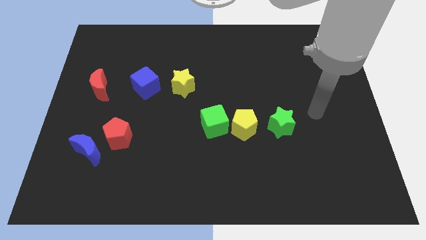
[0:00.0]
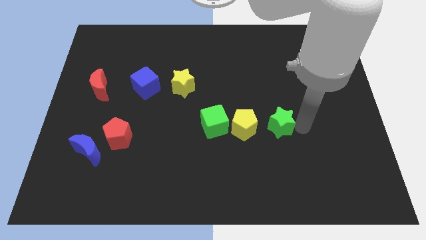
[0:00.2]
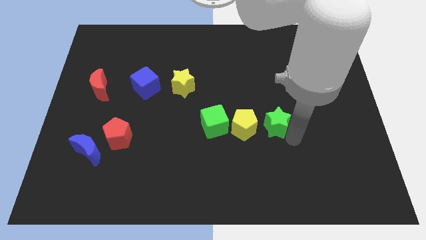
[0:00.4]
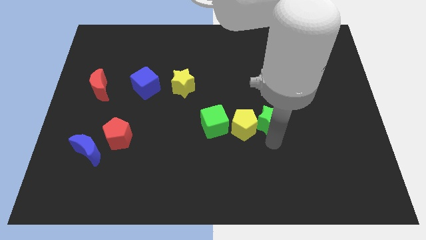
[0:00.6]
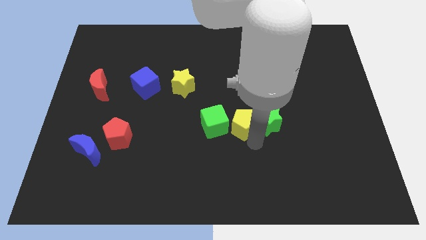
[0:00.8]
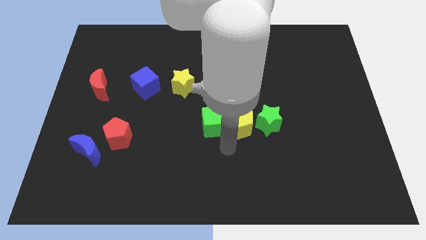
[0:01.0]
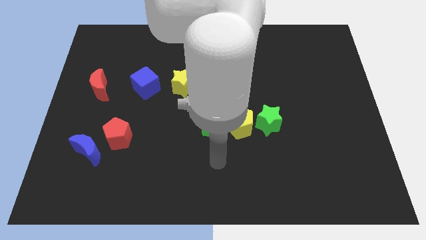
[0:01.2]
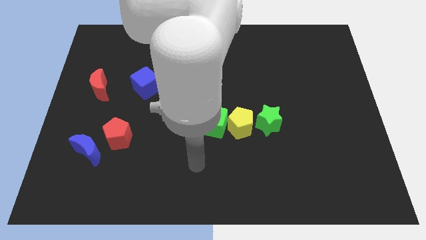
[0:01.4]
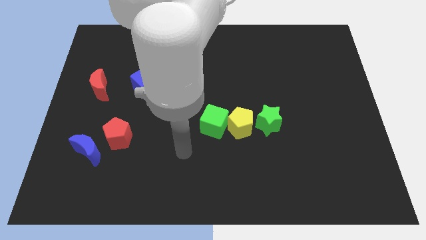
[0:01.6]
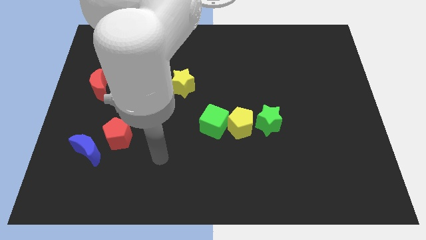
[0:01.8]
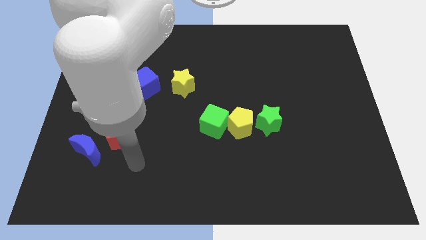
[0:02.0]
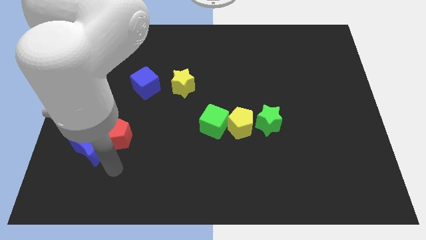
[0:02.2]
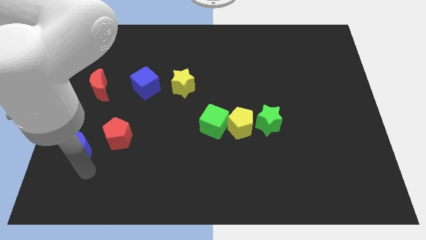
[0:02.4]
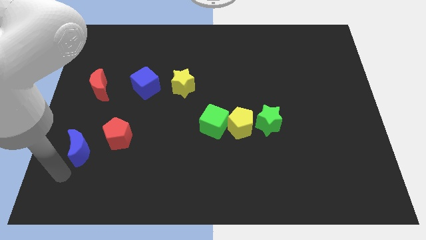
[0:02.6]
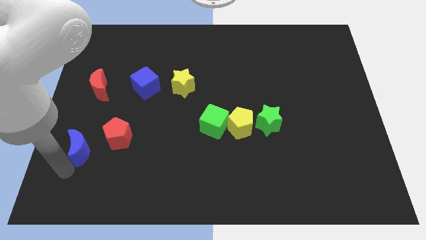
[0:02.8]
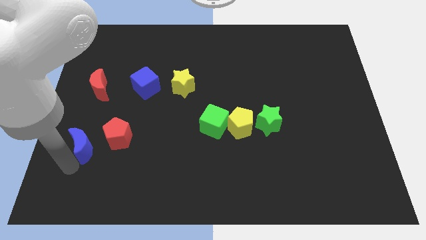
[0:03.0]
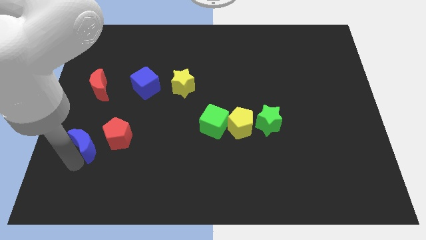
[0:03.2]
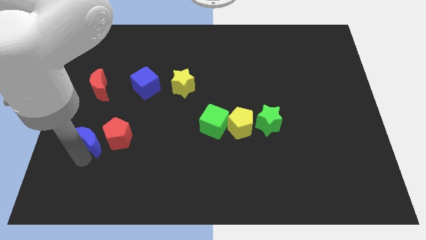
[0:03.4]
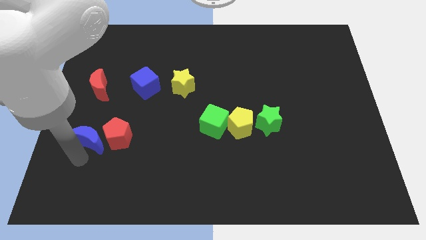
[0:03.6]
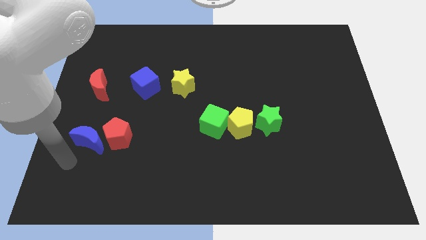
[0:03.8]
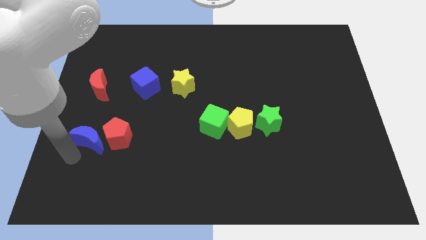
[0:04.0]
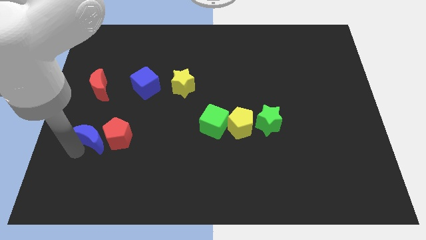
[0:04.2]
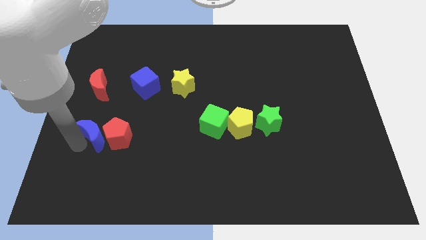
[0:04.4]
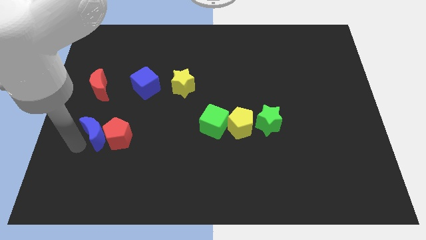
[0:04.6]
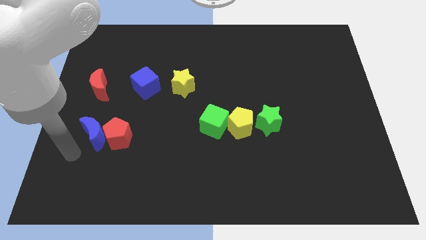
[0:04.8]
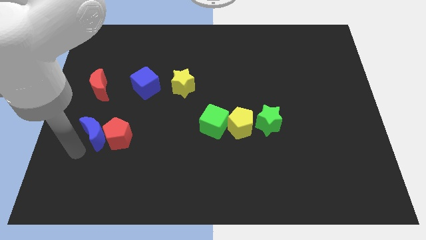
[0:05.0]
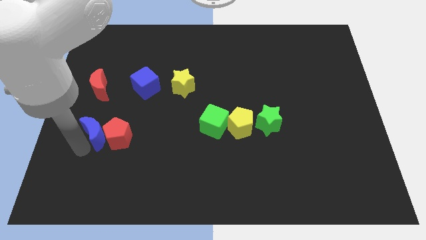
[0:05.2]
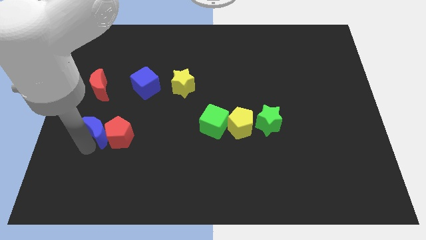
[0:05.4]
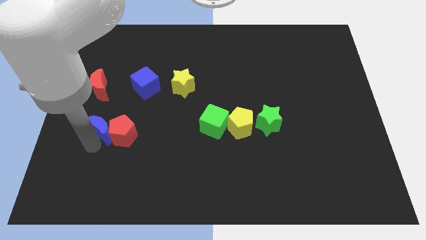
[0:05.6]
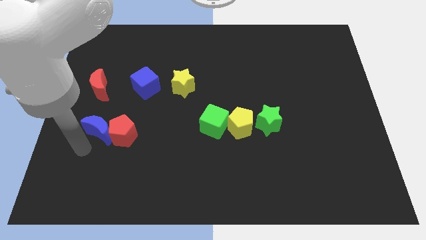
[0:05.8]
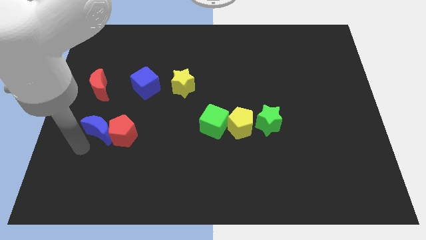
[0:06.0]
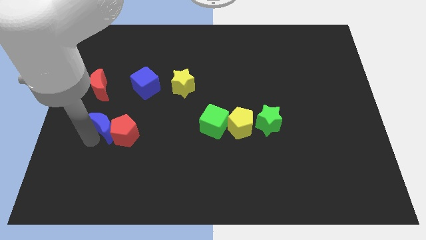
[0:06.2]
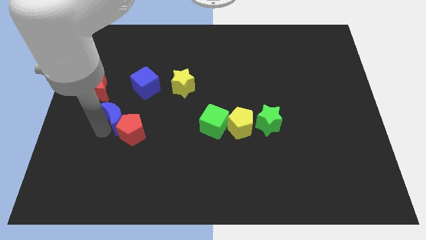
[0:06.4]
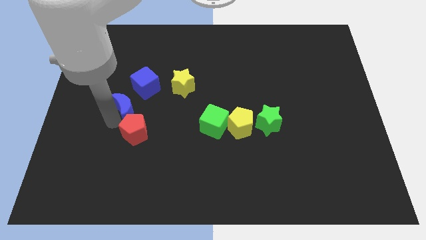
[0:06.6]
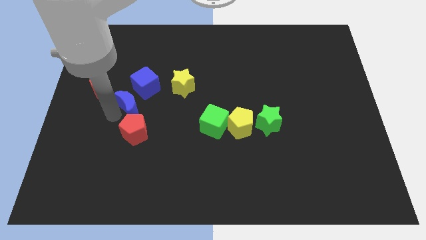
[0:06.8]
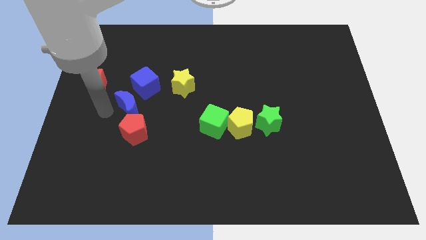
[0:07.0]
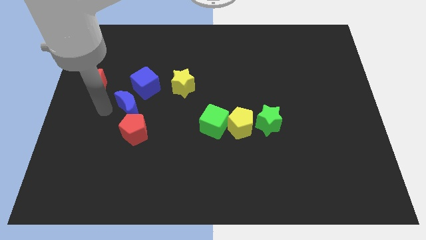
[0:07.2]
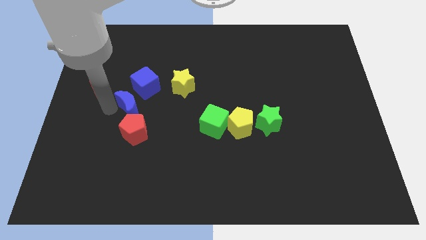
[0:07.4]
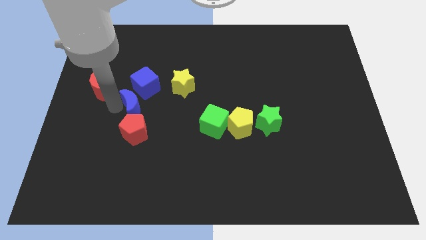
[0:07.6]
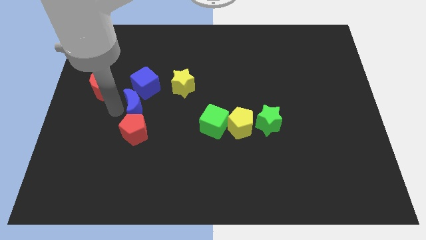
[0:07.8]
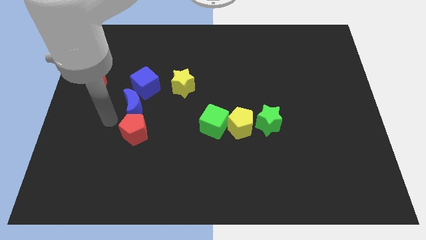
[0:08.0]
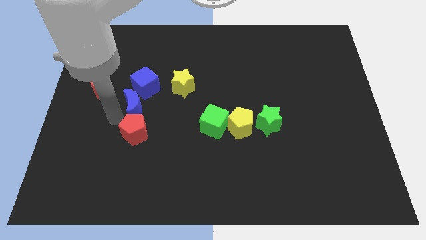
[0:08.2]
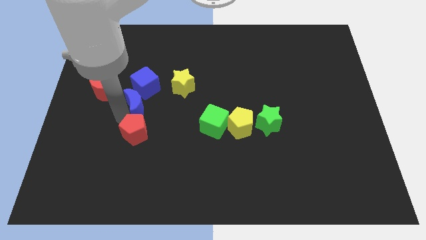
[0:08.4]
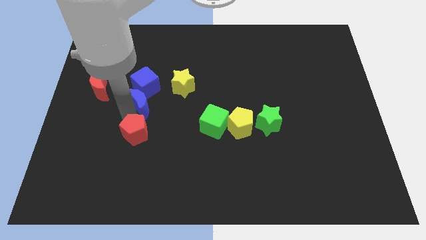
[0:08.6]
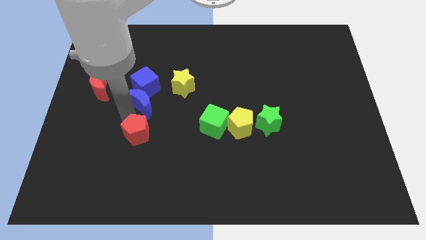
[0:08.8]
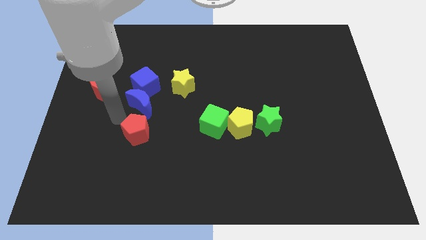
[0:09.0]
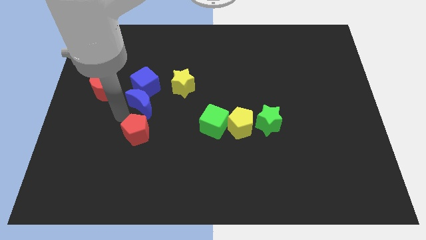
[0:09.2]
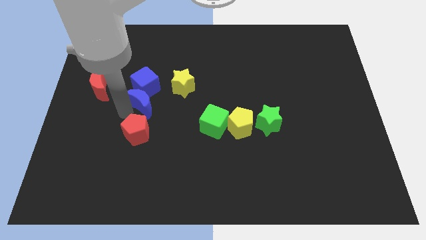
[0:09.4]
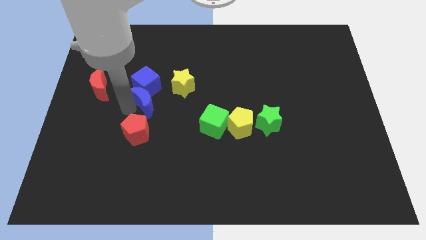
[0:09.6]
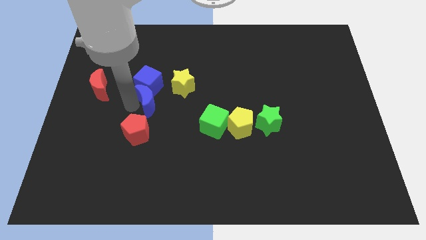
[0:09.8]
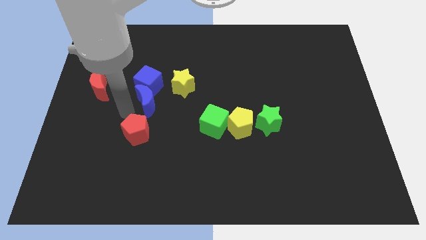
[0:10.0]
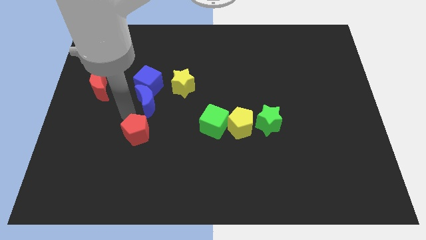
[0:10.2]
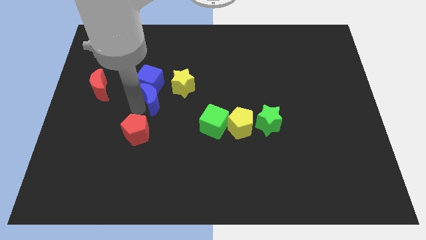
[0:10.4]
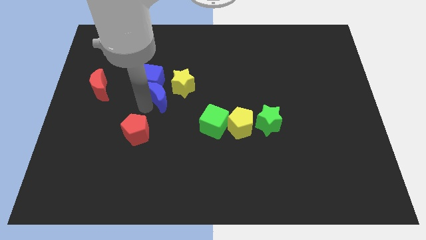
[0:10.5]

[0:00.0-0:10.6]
slide the blue moon diagonally up and right

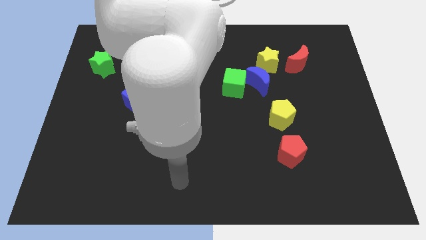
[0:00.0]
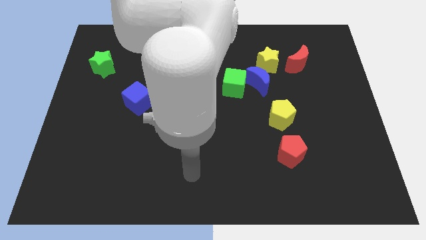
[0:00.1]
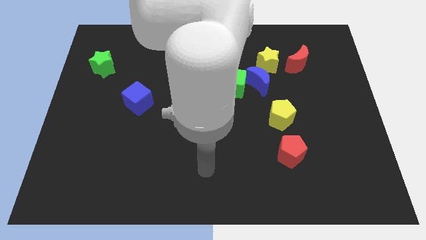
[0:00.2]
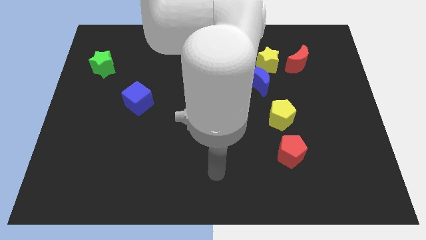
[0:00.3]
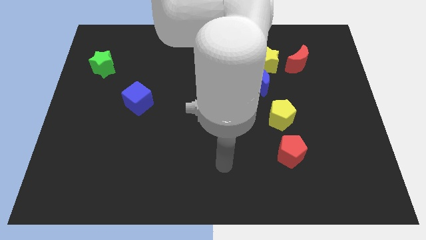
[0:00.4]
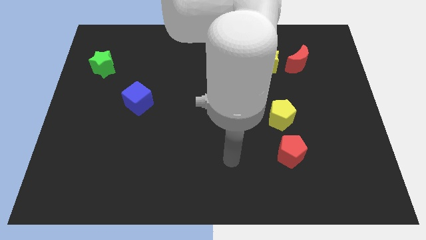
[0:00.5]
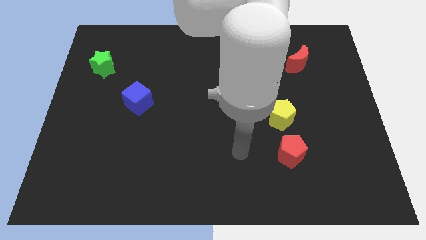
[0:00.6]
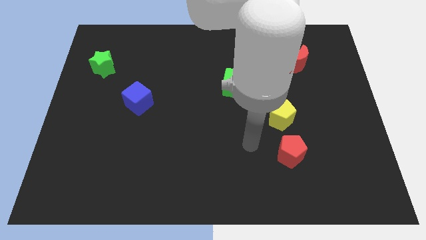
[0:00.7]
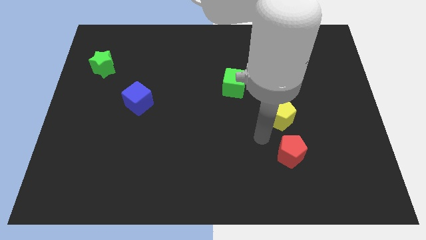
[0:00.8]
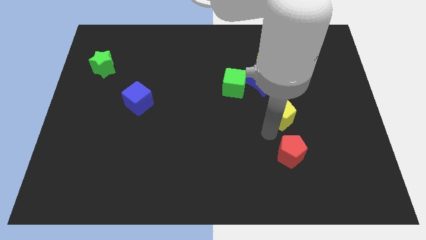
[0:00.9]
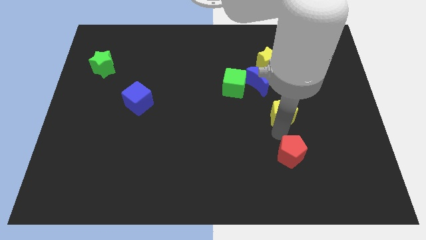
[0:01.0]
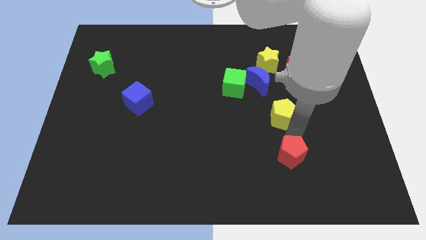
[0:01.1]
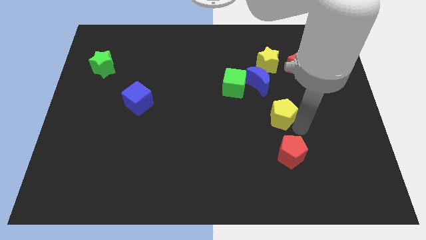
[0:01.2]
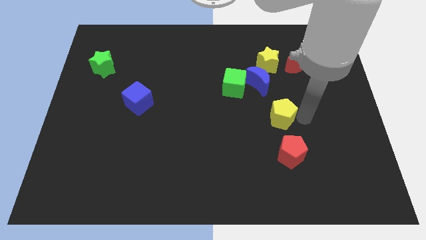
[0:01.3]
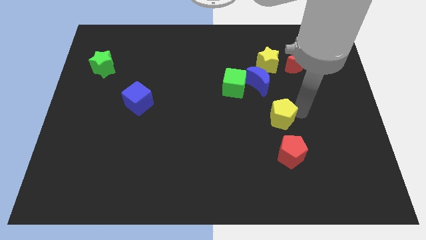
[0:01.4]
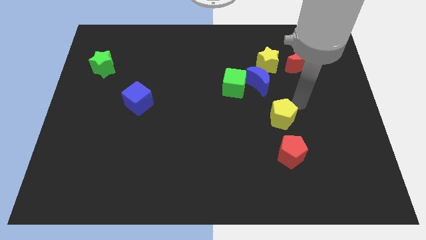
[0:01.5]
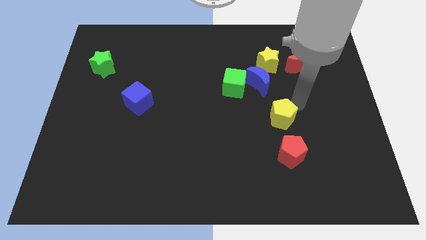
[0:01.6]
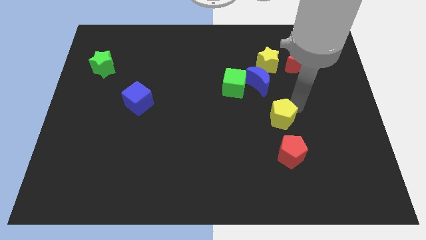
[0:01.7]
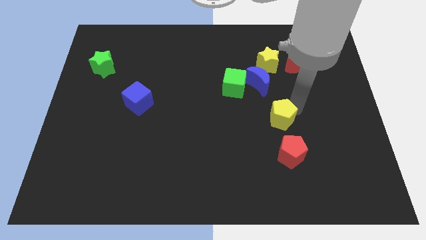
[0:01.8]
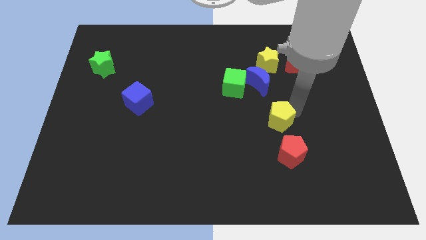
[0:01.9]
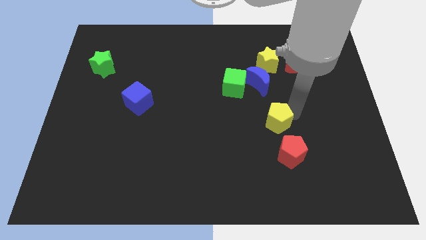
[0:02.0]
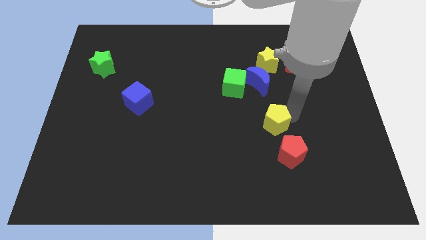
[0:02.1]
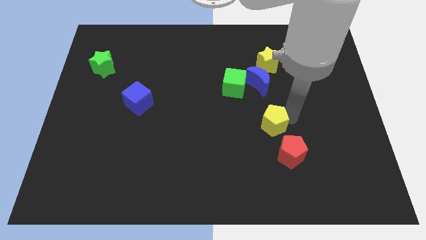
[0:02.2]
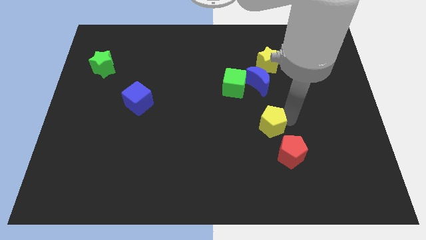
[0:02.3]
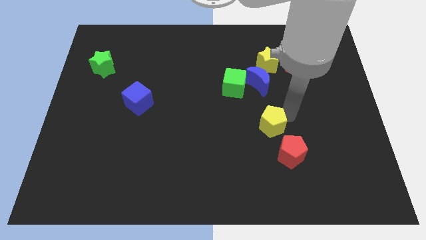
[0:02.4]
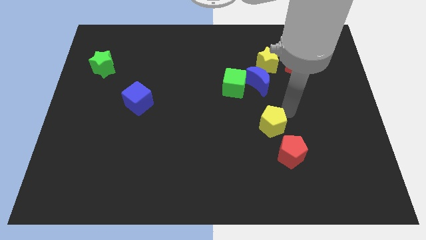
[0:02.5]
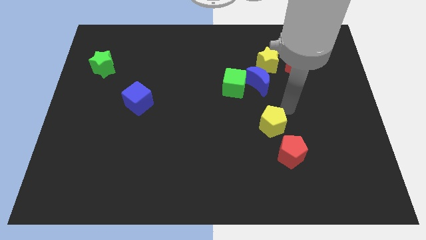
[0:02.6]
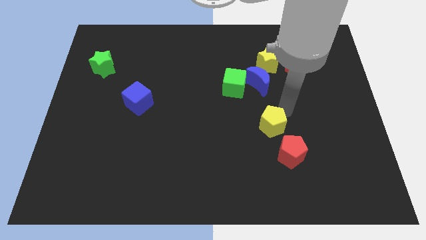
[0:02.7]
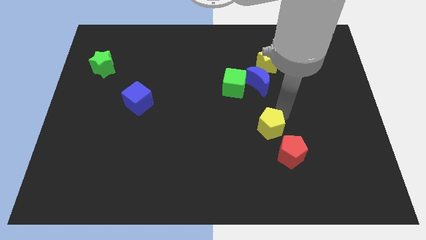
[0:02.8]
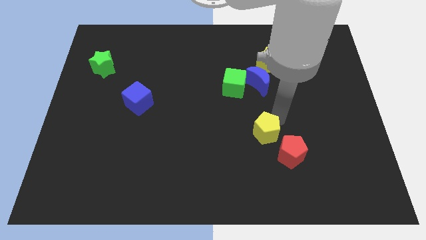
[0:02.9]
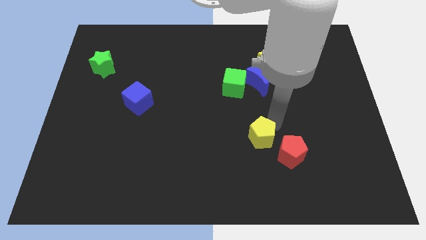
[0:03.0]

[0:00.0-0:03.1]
slide the yellow pentagon down and then left a little bit
